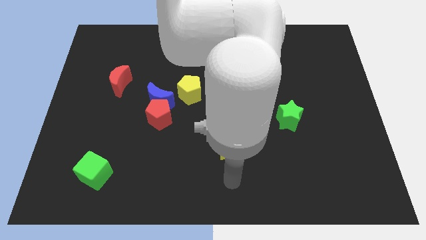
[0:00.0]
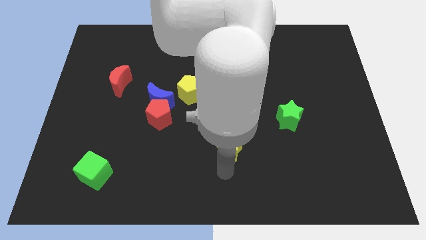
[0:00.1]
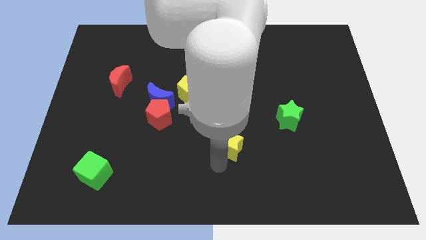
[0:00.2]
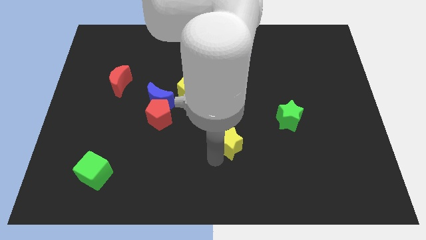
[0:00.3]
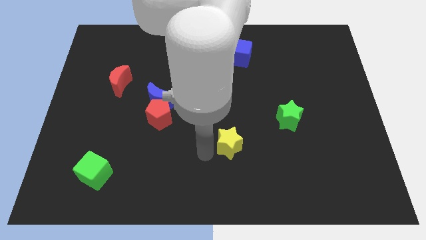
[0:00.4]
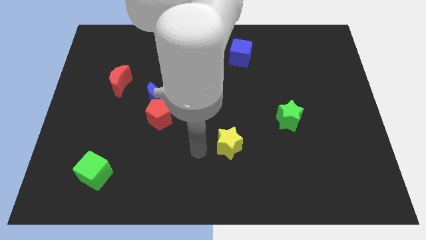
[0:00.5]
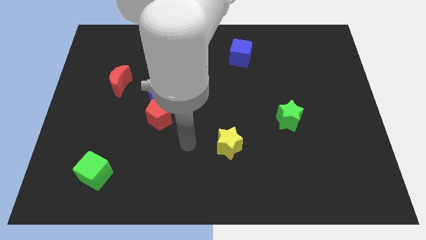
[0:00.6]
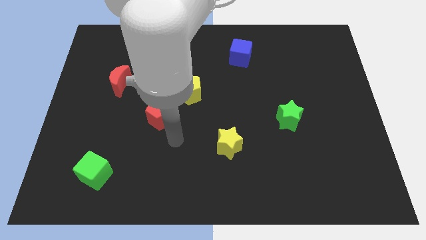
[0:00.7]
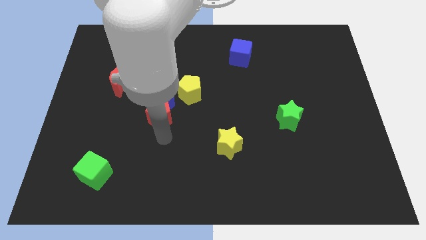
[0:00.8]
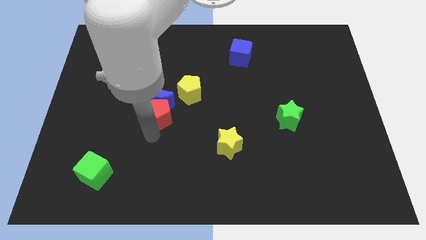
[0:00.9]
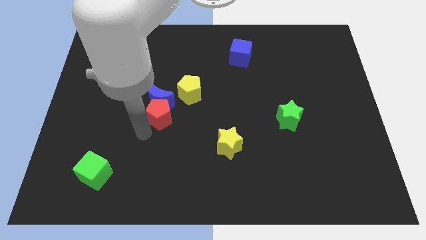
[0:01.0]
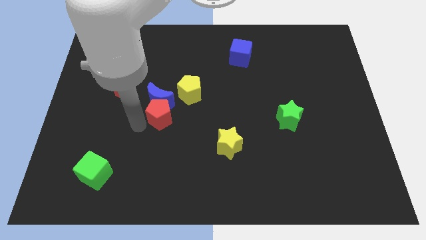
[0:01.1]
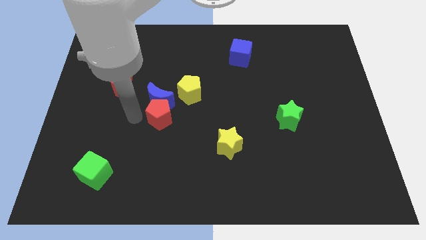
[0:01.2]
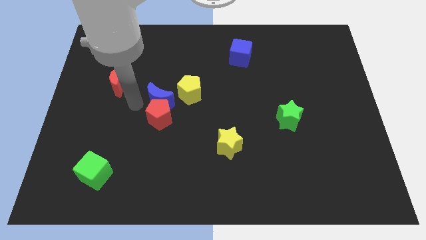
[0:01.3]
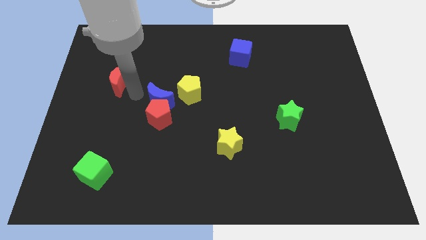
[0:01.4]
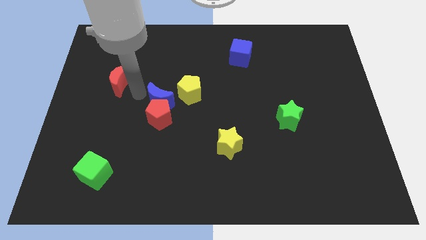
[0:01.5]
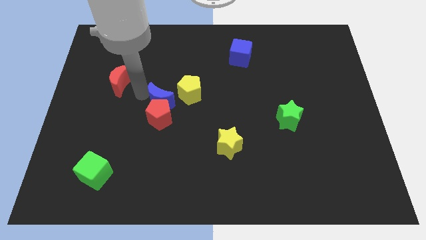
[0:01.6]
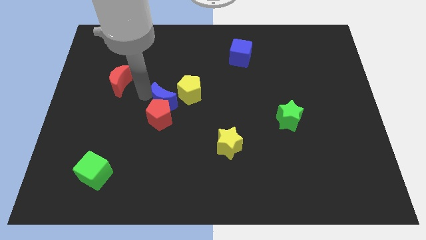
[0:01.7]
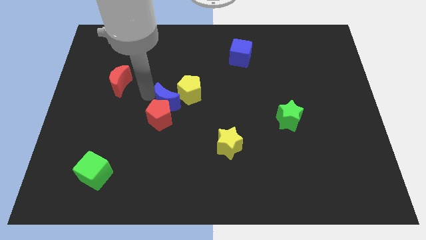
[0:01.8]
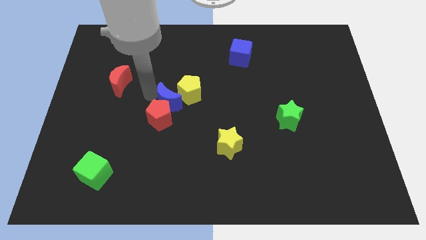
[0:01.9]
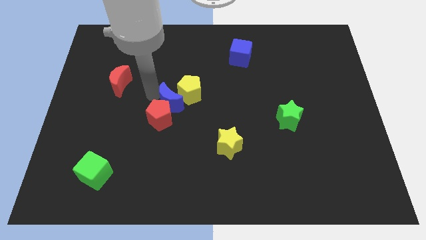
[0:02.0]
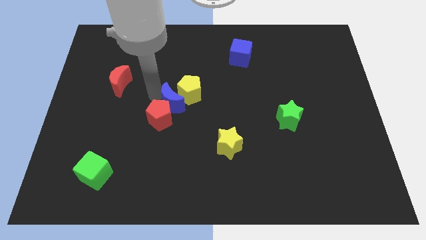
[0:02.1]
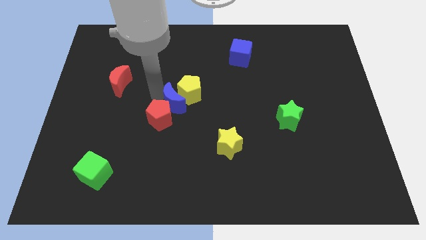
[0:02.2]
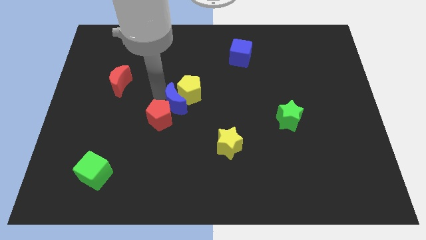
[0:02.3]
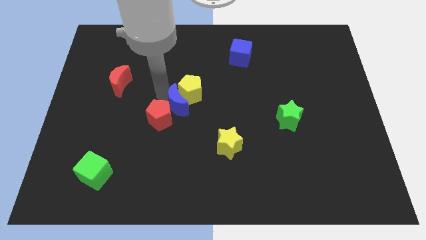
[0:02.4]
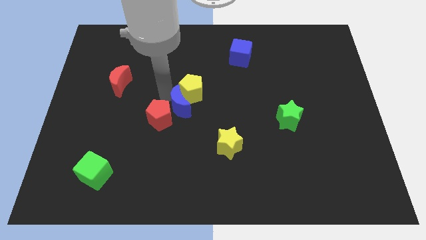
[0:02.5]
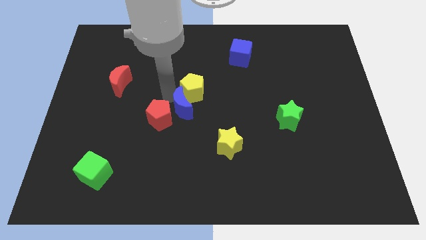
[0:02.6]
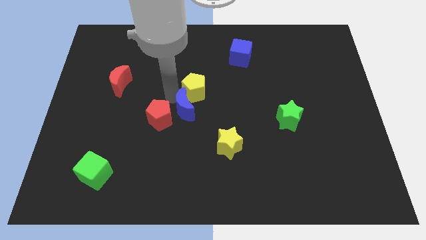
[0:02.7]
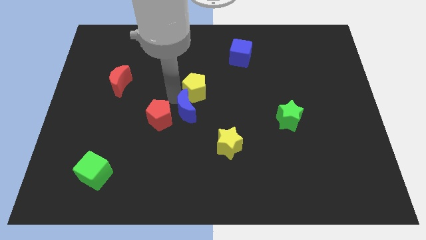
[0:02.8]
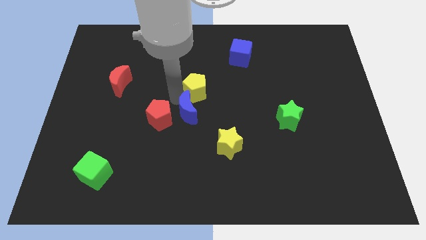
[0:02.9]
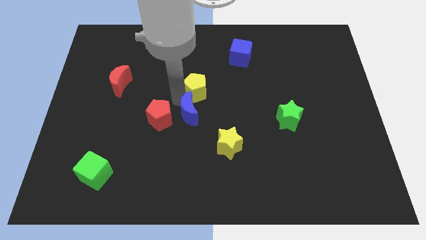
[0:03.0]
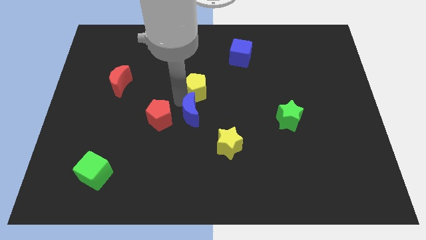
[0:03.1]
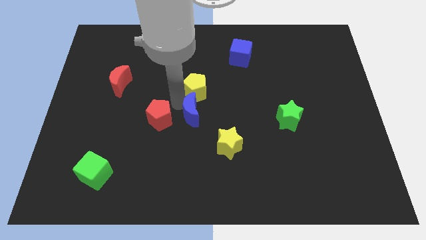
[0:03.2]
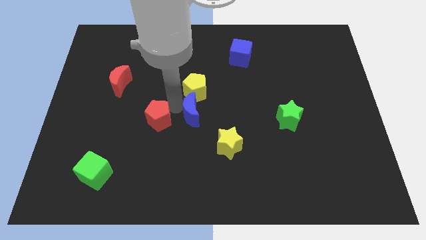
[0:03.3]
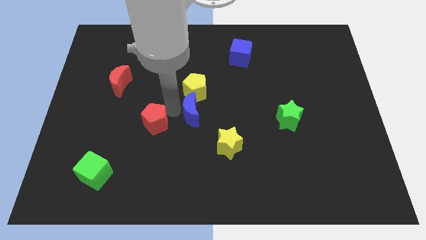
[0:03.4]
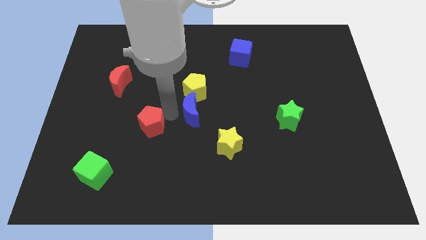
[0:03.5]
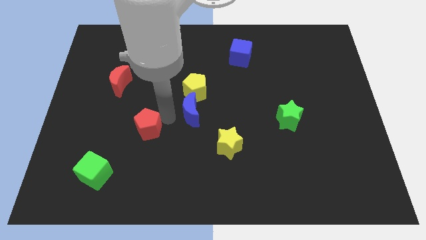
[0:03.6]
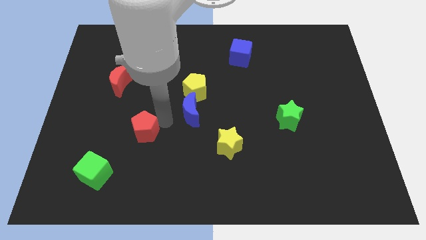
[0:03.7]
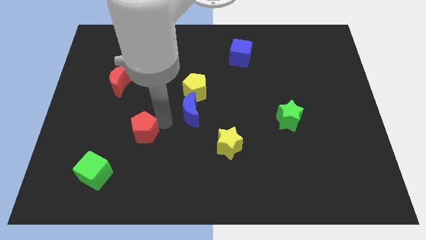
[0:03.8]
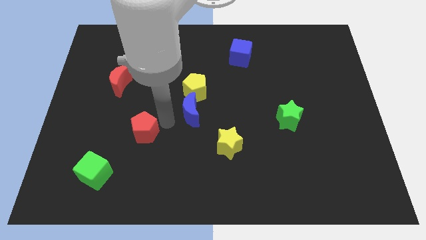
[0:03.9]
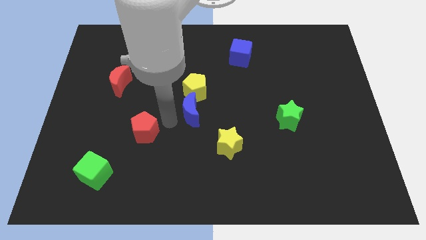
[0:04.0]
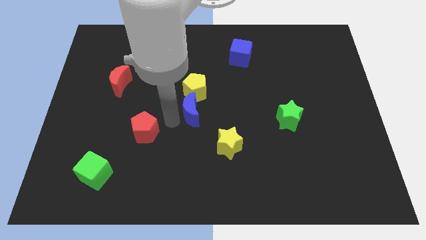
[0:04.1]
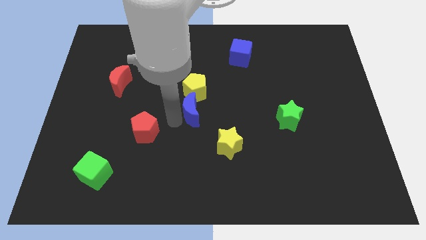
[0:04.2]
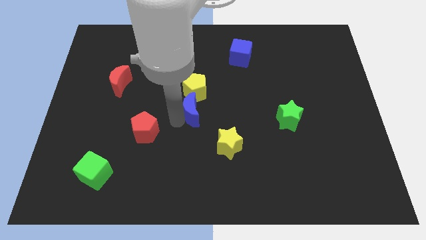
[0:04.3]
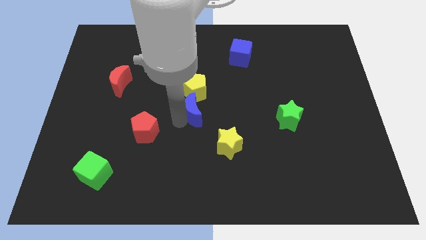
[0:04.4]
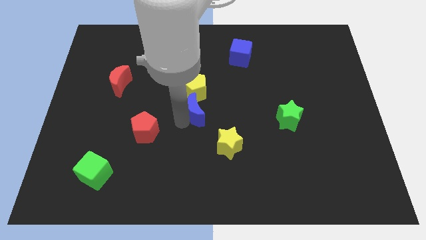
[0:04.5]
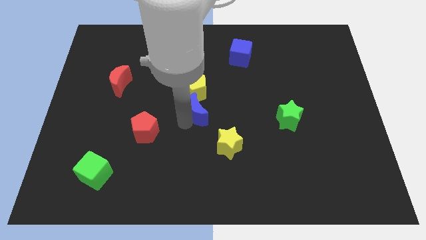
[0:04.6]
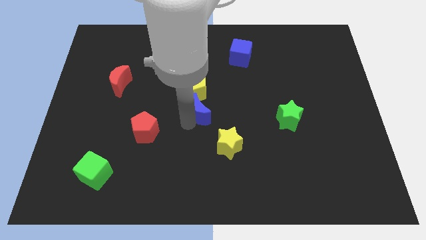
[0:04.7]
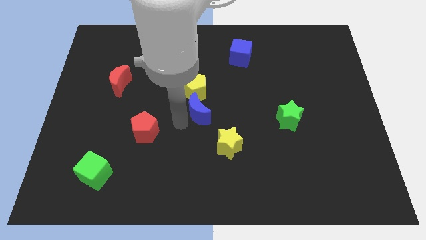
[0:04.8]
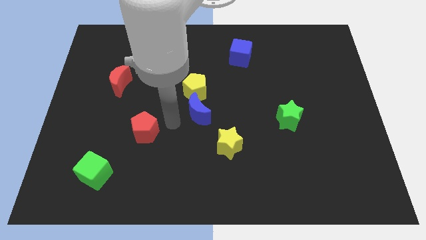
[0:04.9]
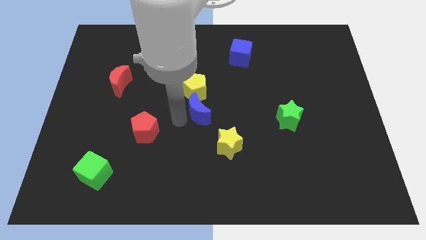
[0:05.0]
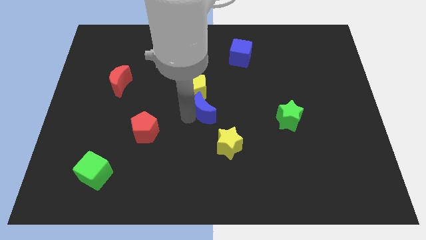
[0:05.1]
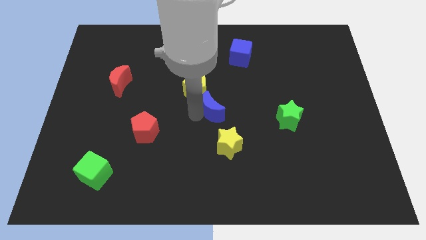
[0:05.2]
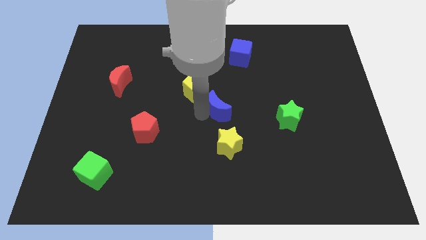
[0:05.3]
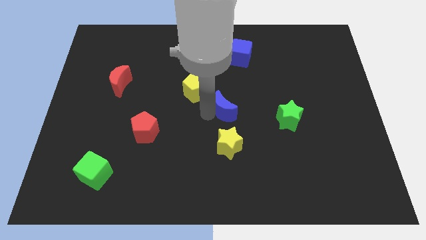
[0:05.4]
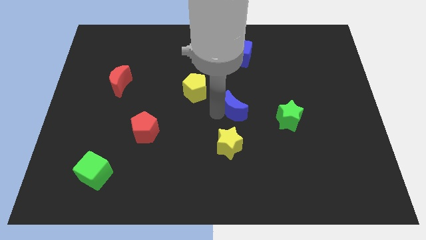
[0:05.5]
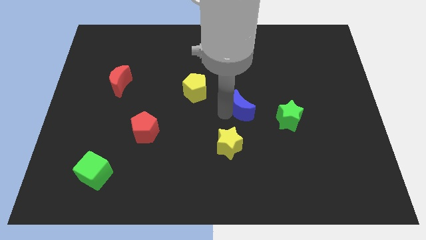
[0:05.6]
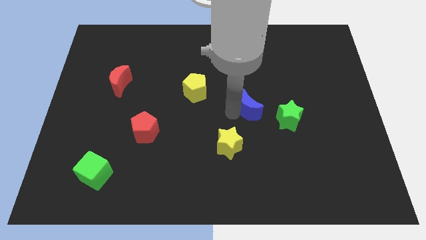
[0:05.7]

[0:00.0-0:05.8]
slide the blue moon to the right

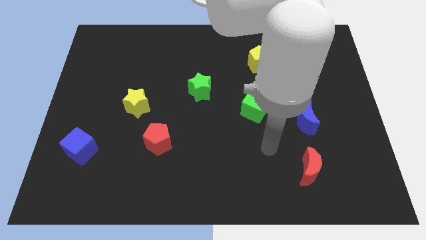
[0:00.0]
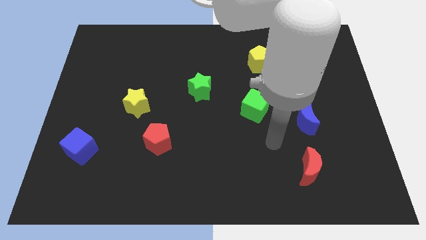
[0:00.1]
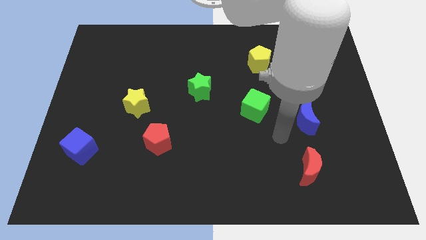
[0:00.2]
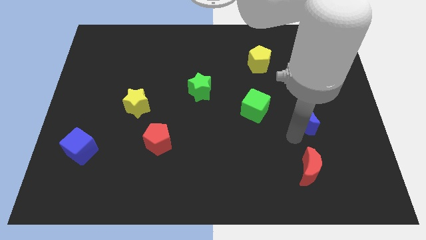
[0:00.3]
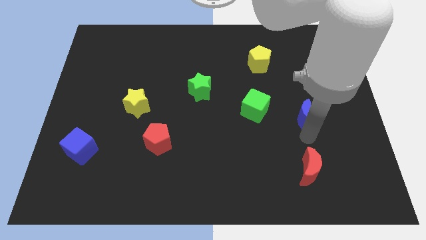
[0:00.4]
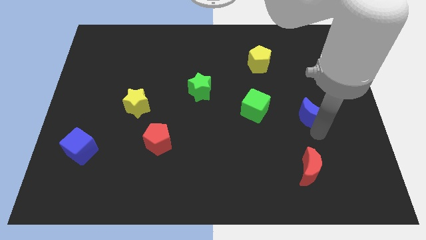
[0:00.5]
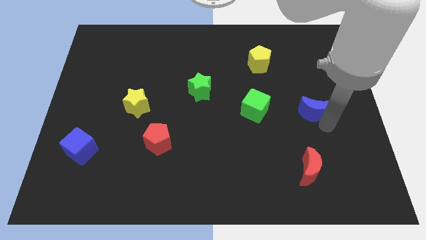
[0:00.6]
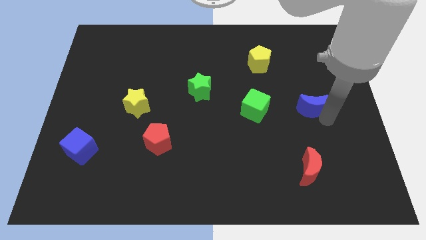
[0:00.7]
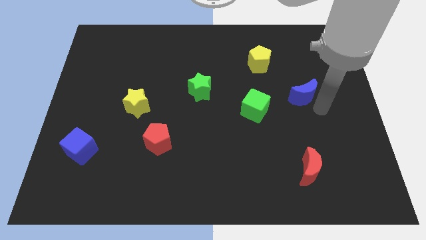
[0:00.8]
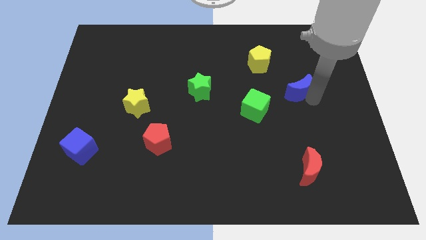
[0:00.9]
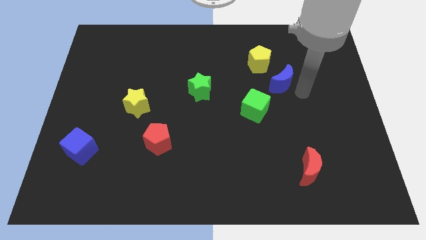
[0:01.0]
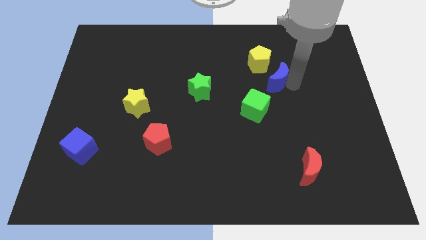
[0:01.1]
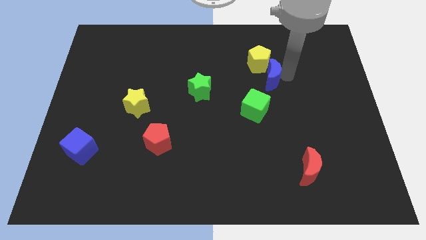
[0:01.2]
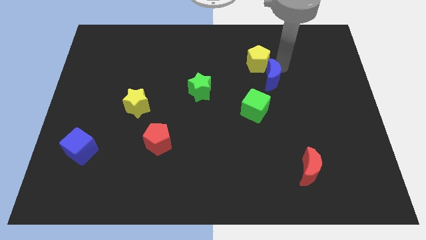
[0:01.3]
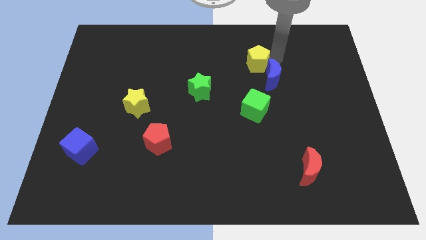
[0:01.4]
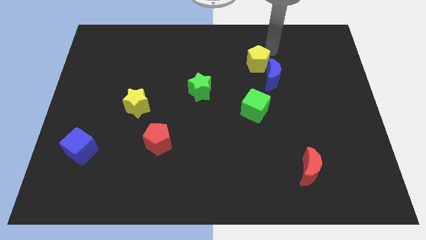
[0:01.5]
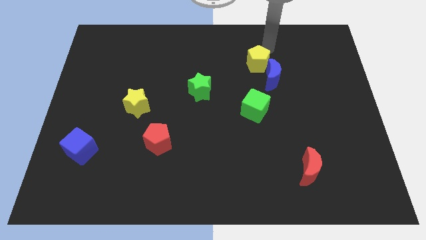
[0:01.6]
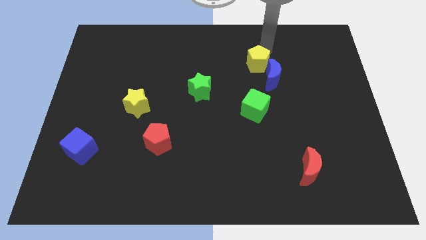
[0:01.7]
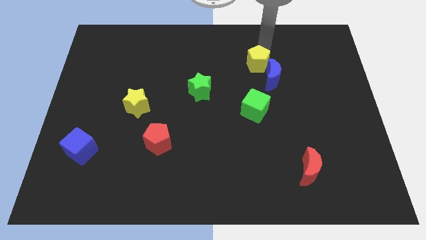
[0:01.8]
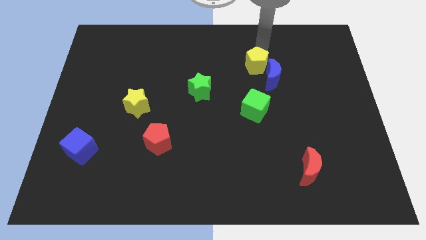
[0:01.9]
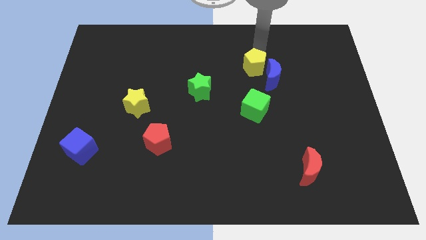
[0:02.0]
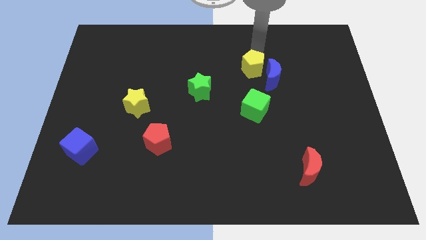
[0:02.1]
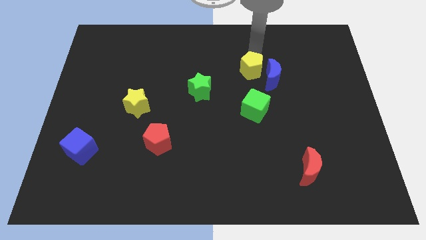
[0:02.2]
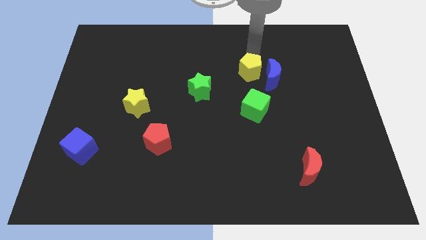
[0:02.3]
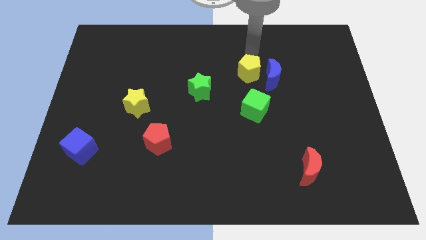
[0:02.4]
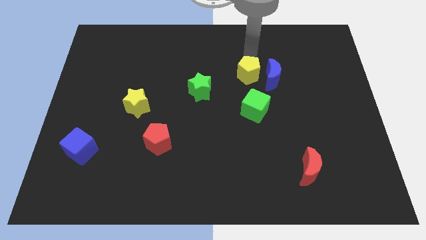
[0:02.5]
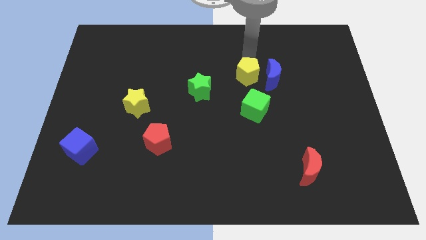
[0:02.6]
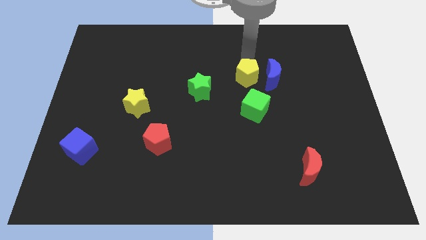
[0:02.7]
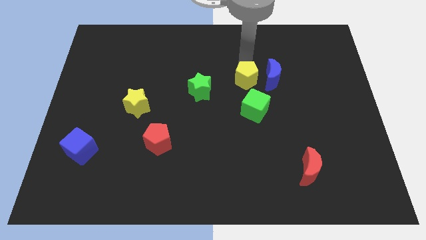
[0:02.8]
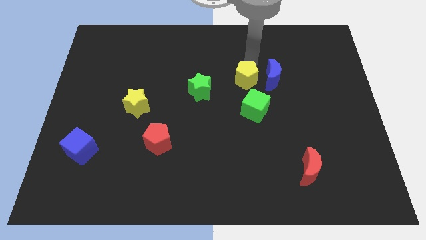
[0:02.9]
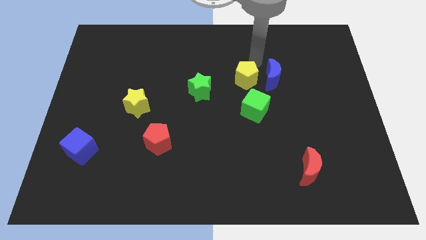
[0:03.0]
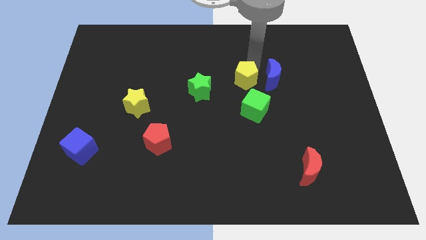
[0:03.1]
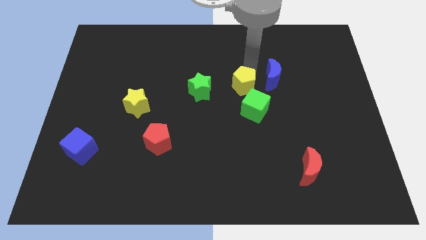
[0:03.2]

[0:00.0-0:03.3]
move the yellow pentagon a little downwards and then to the left
